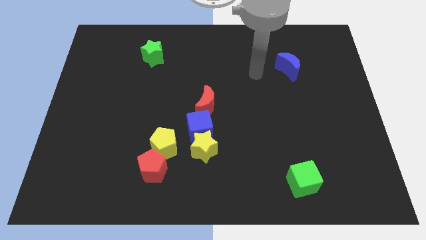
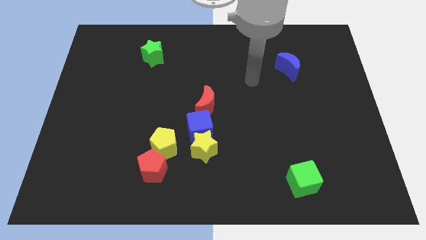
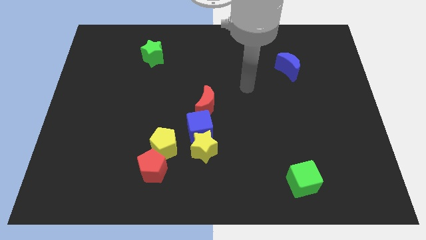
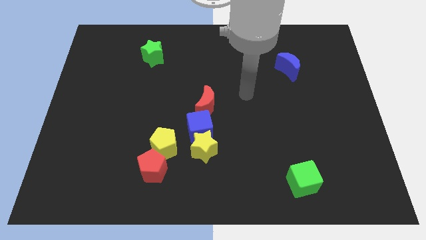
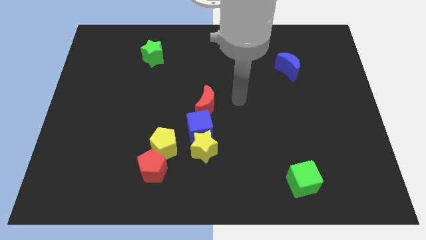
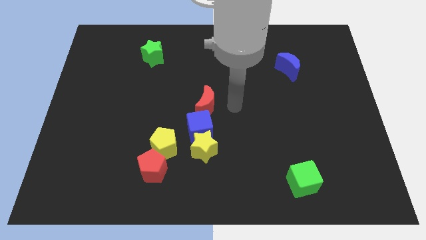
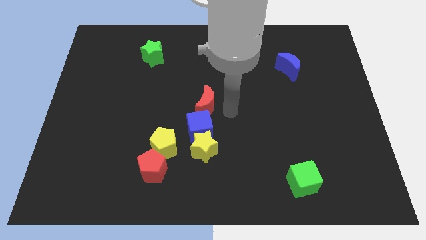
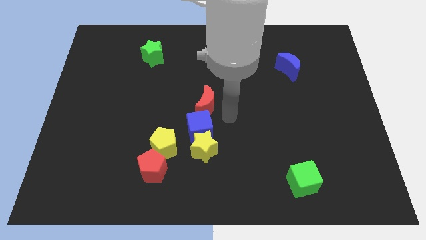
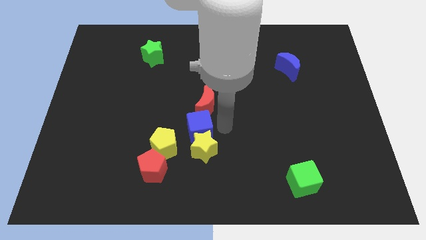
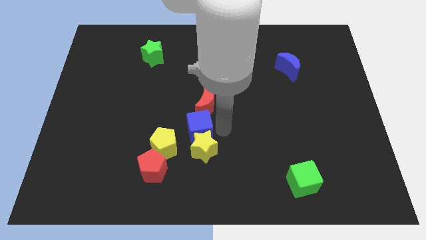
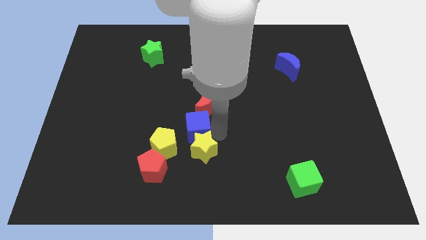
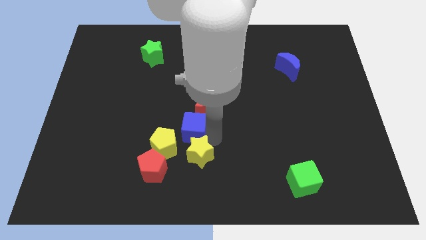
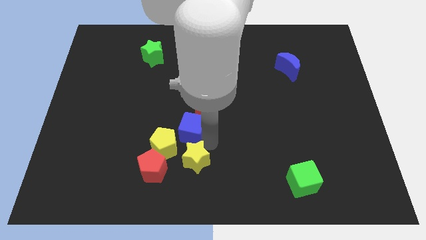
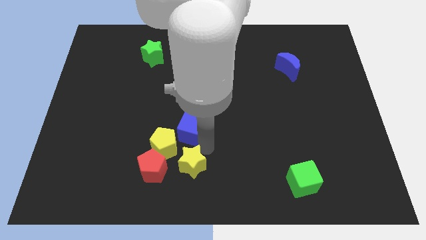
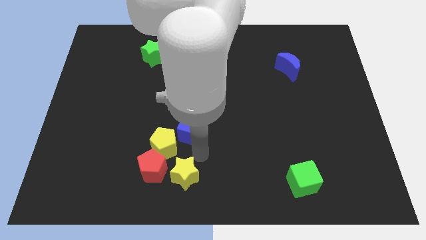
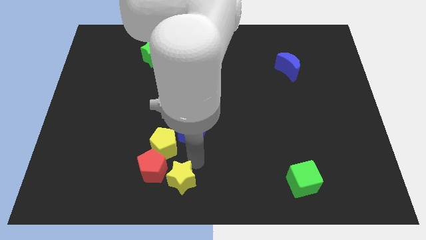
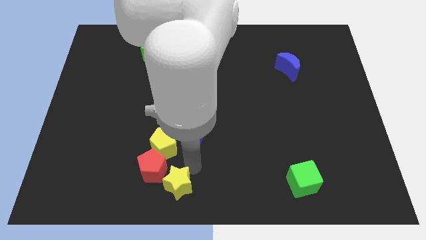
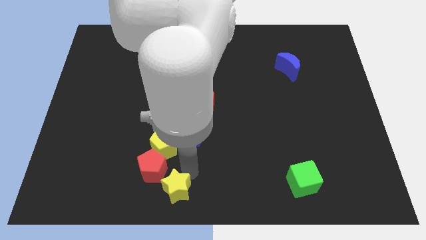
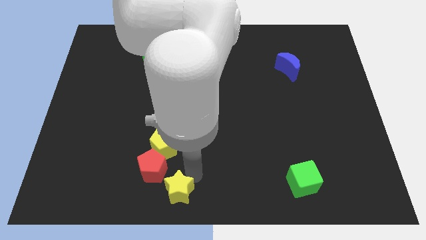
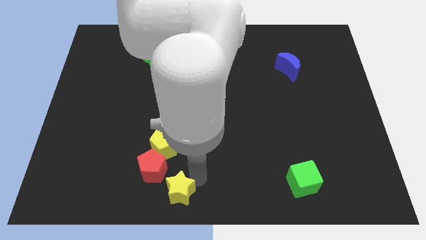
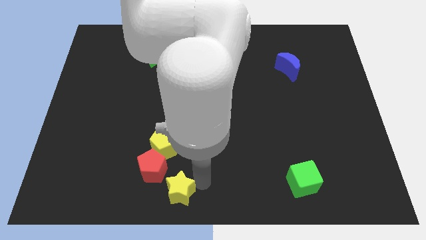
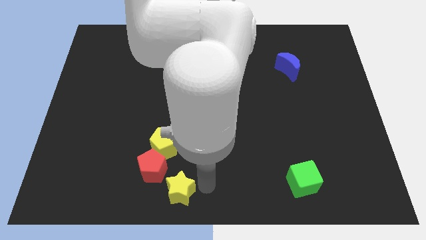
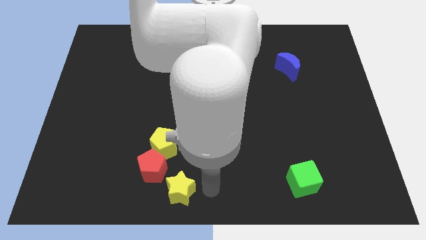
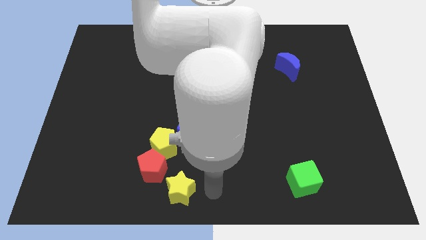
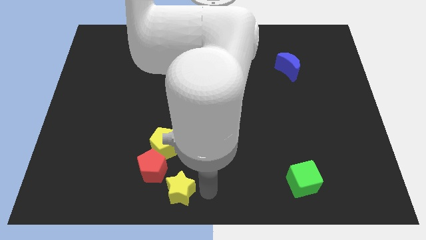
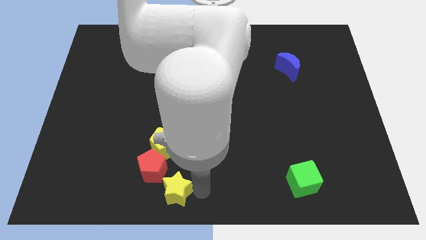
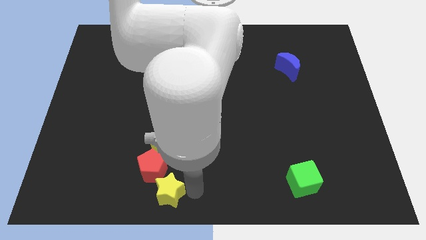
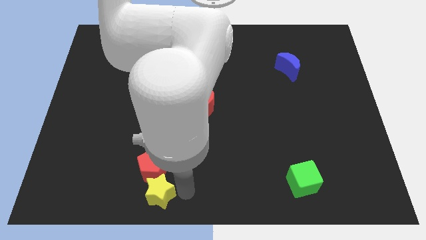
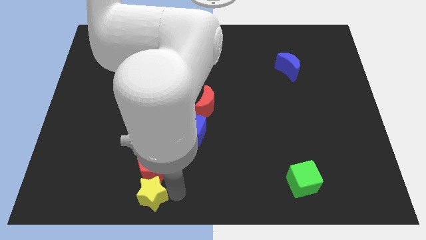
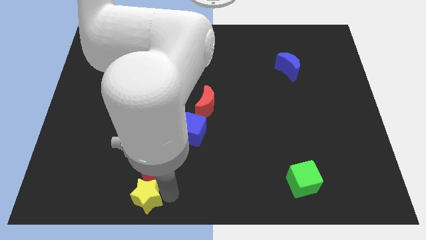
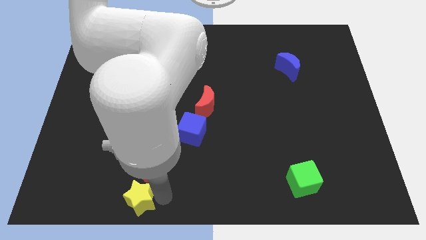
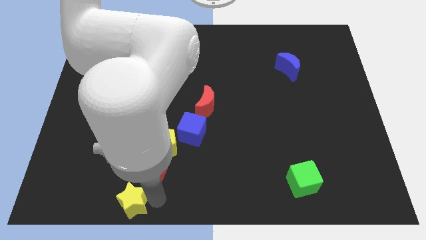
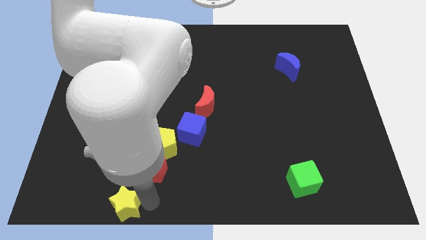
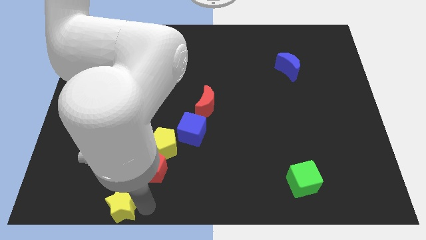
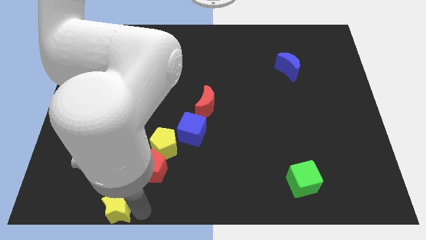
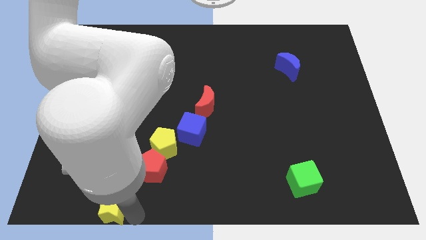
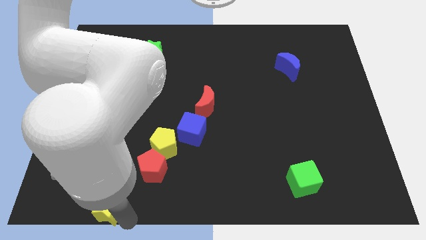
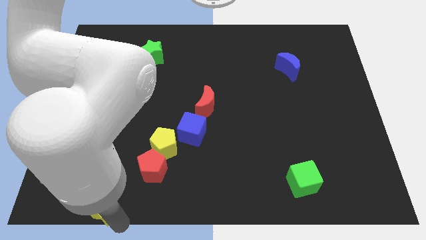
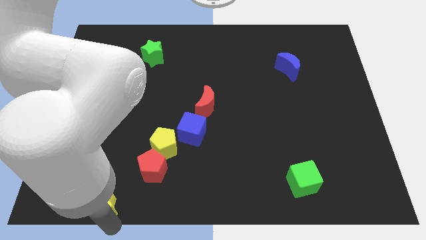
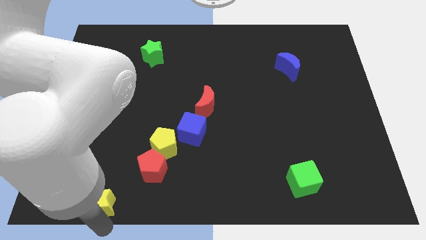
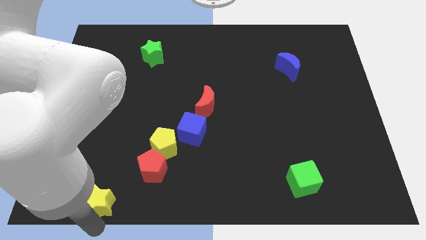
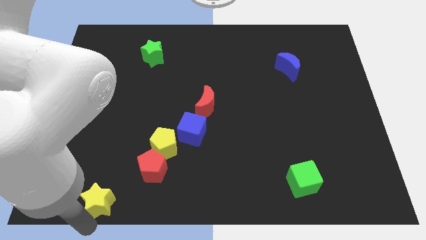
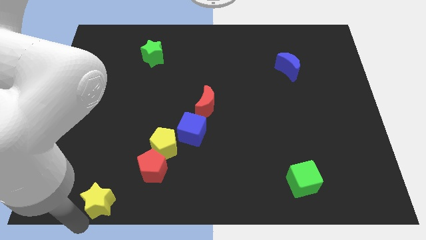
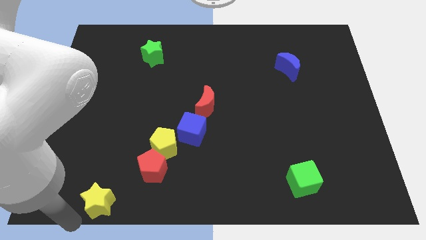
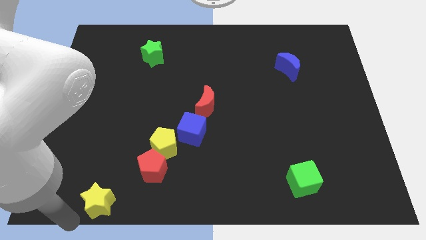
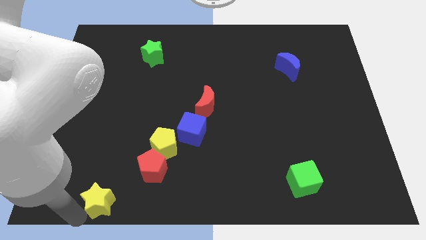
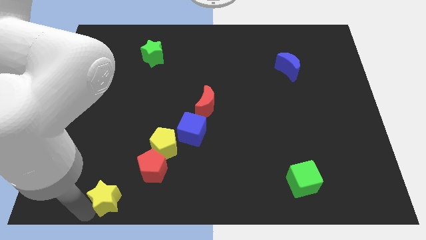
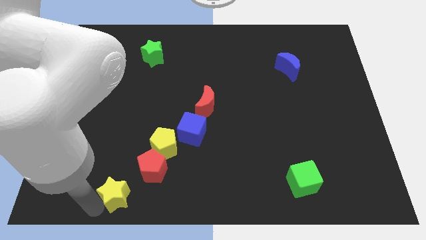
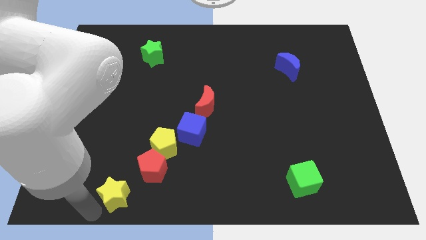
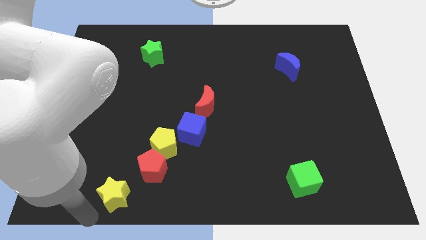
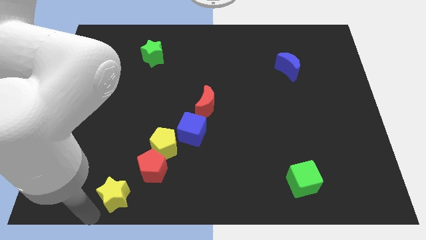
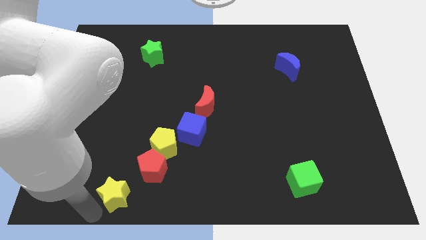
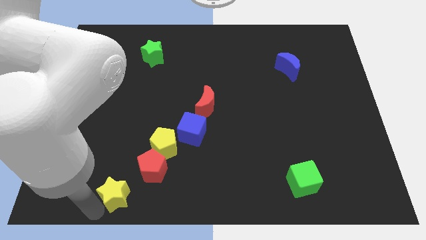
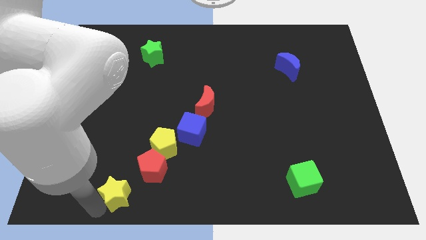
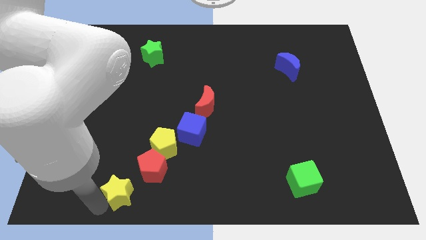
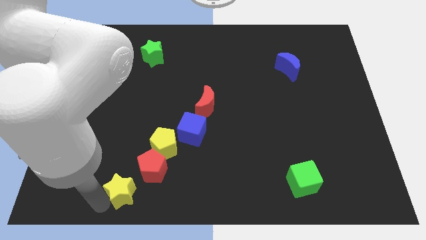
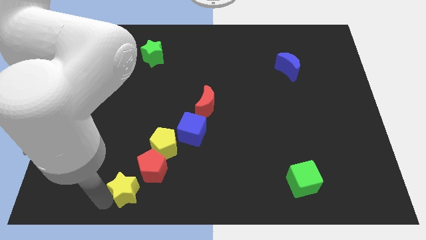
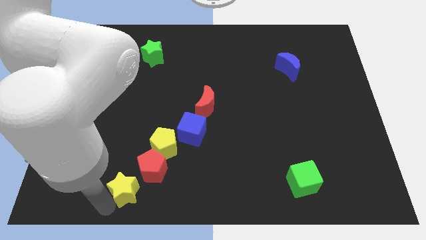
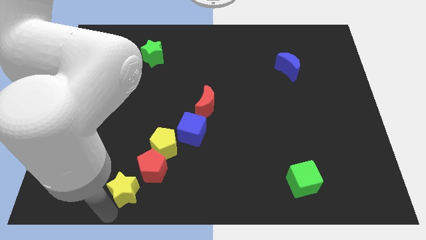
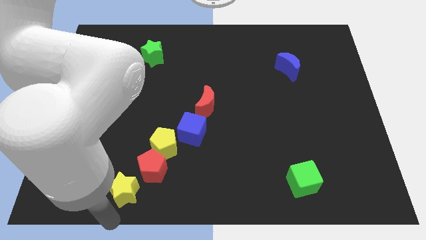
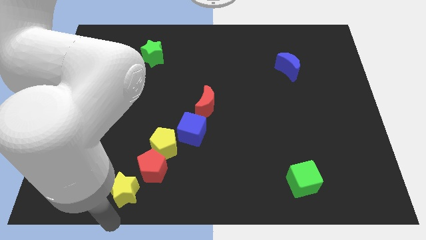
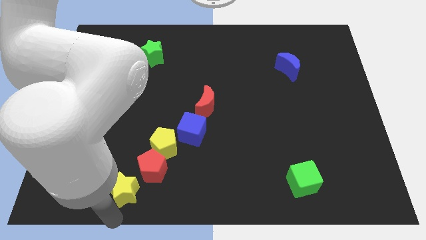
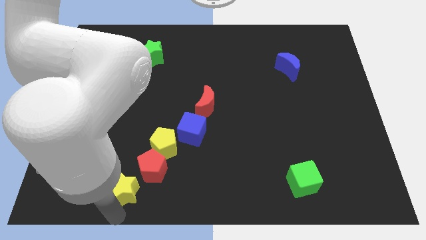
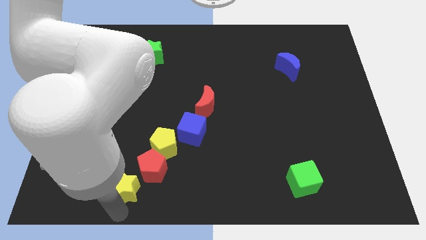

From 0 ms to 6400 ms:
push the yellow star diagonally down and to the left of the yellow pentagon

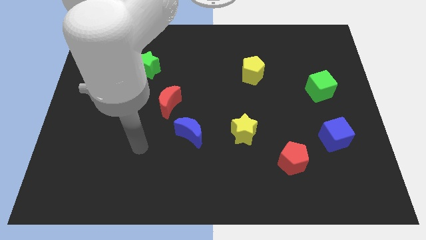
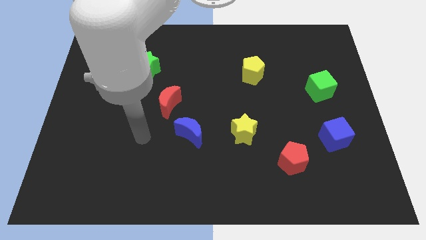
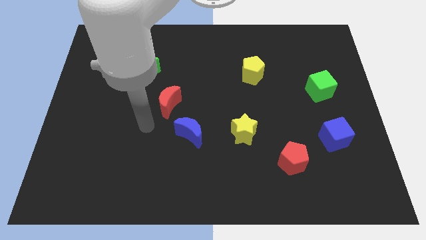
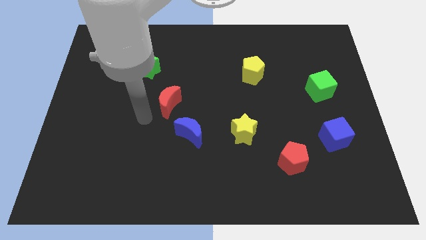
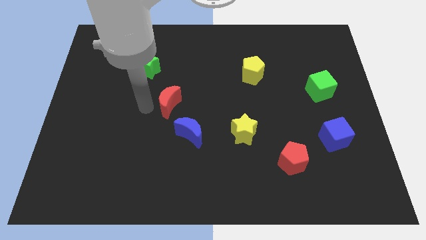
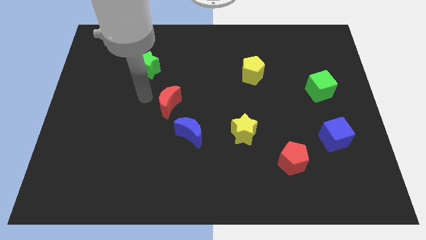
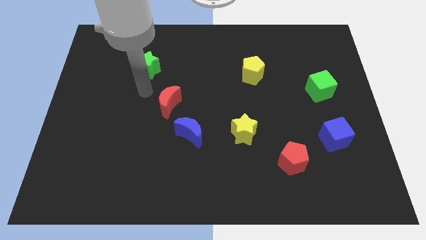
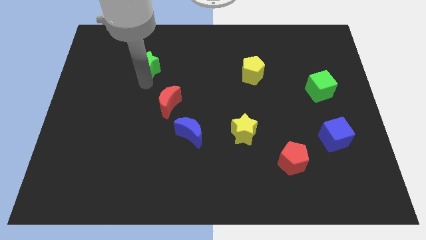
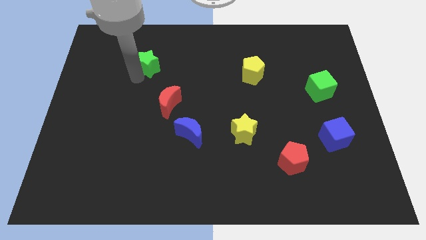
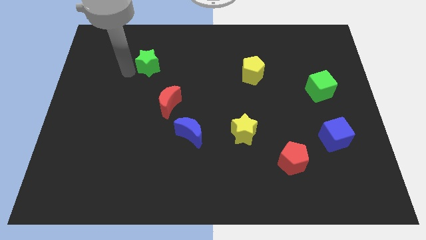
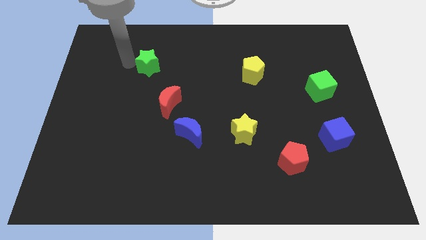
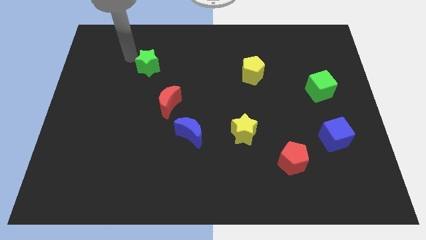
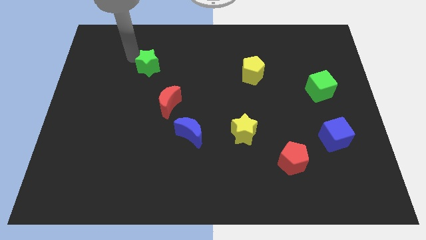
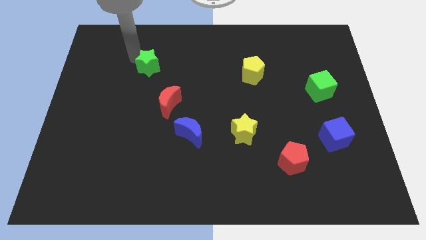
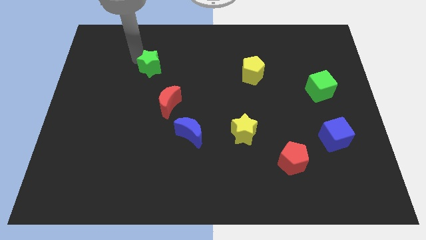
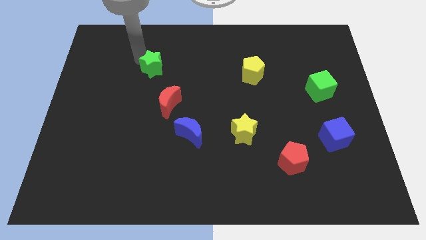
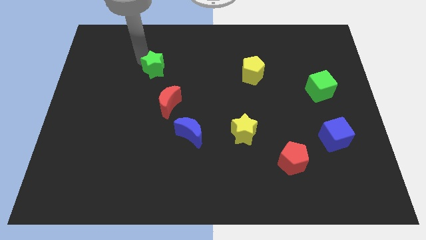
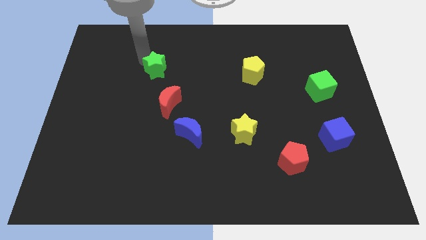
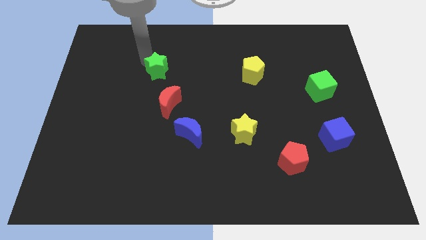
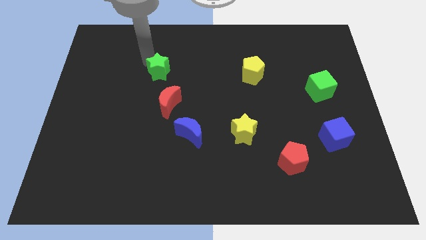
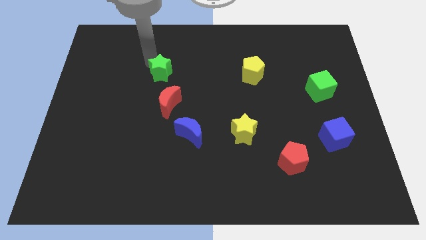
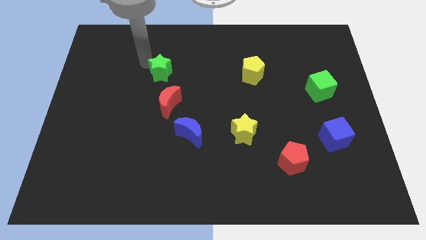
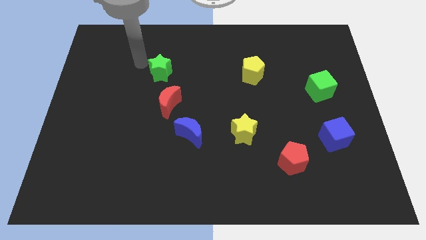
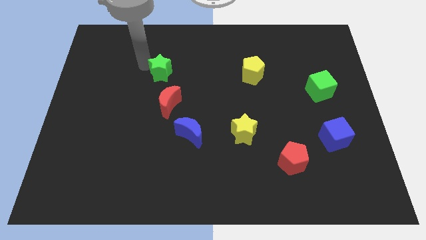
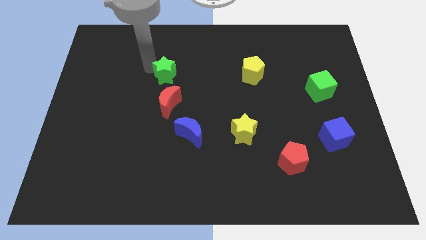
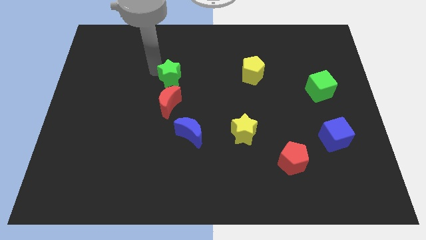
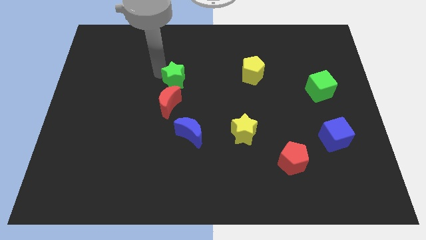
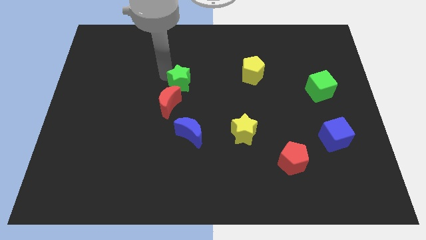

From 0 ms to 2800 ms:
push the green star above the blue moon
